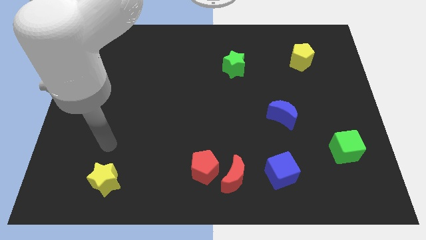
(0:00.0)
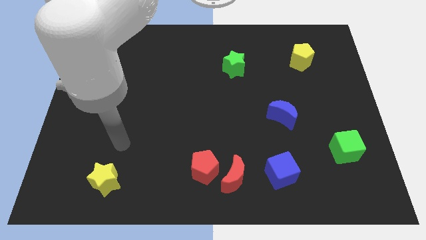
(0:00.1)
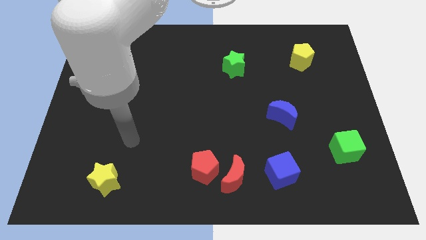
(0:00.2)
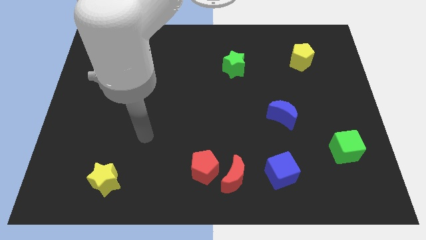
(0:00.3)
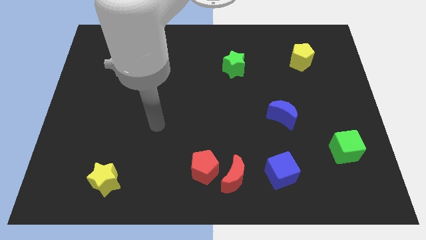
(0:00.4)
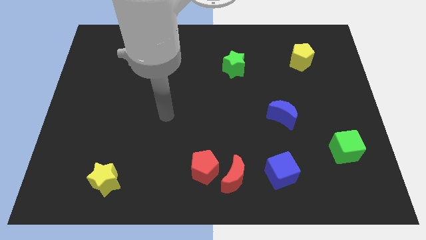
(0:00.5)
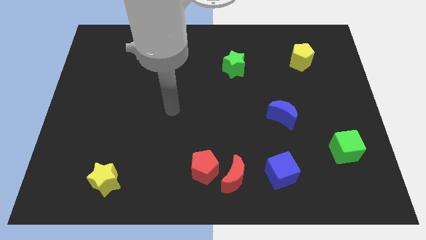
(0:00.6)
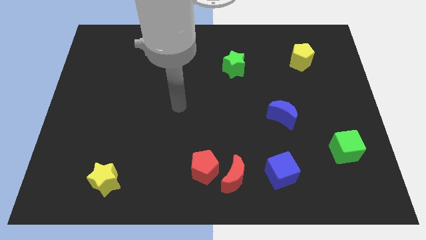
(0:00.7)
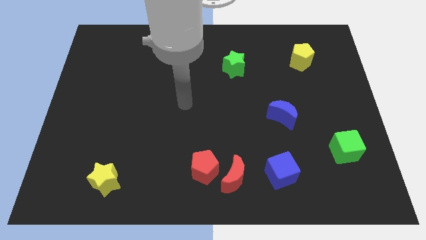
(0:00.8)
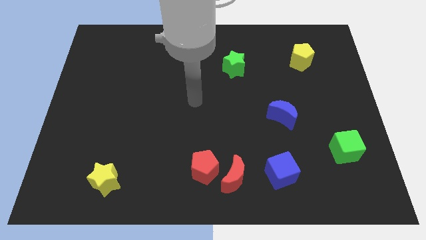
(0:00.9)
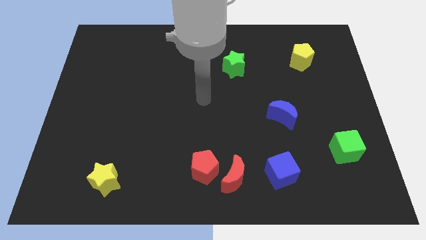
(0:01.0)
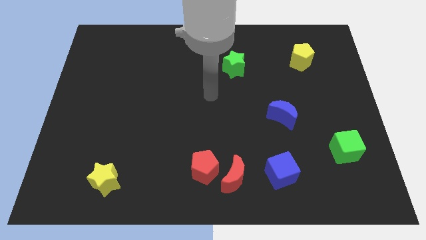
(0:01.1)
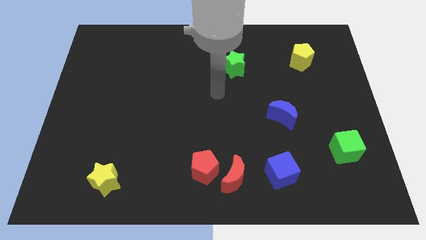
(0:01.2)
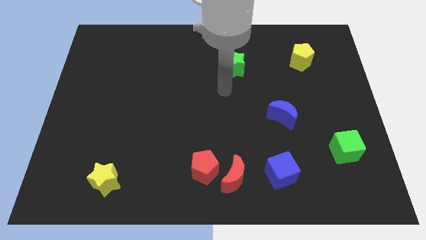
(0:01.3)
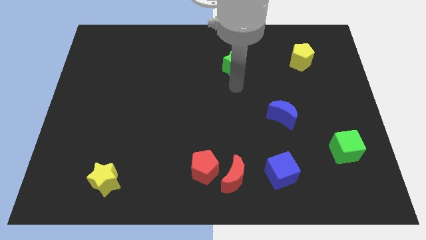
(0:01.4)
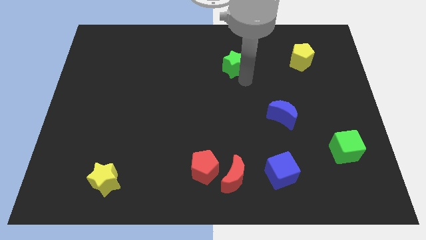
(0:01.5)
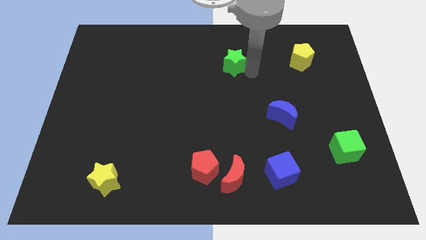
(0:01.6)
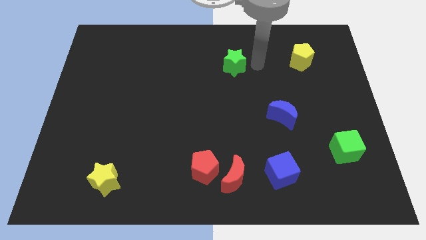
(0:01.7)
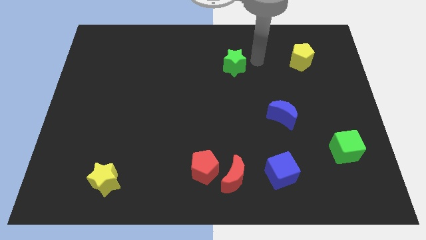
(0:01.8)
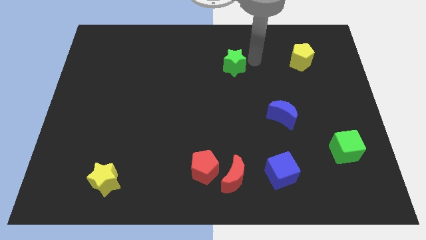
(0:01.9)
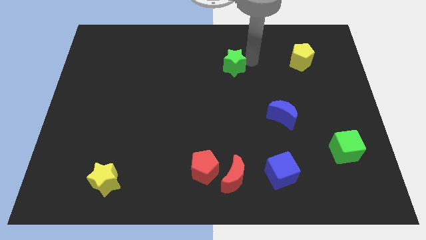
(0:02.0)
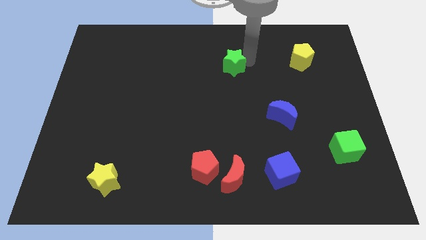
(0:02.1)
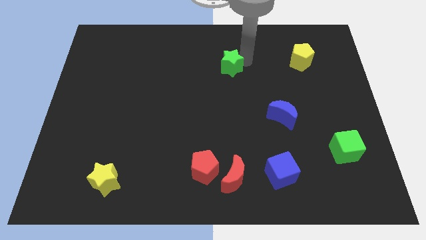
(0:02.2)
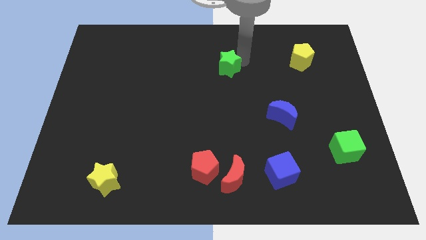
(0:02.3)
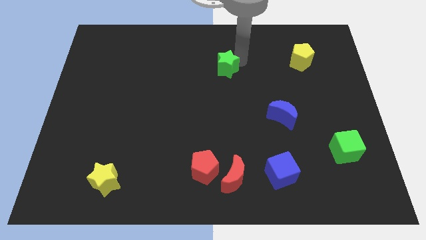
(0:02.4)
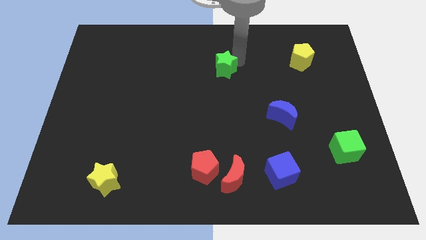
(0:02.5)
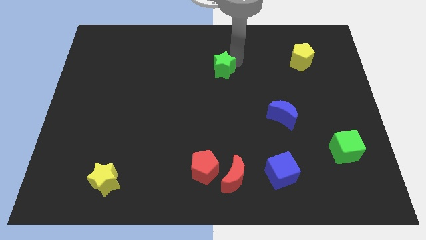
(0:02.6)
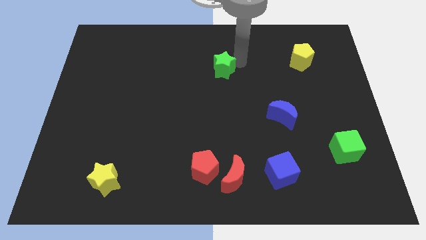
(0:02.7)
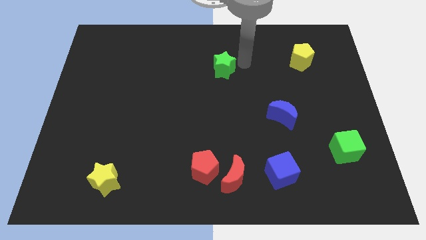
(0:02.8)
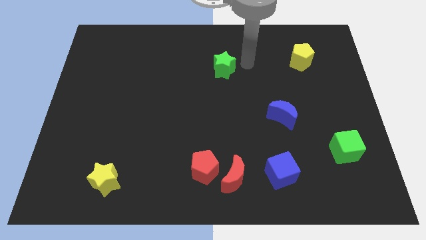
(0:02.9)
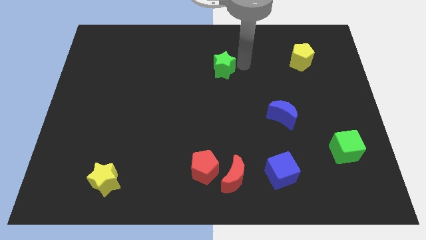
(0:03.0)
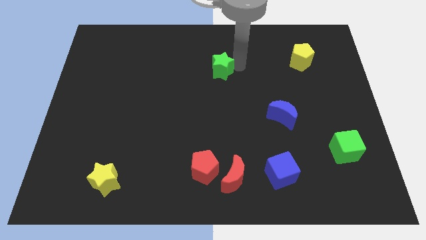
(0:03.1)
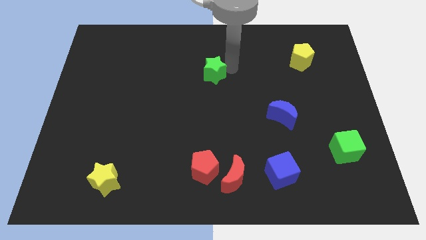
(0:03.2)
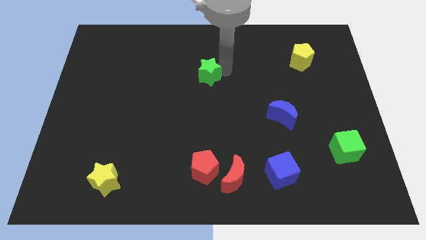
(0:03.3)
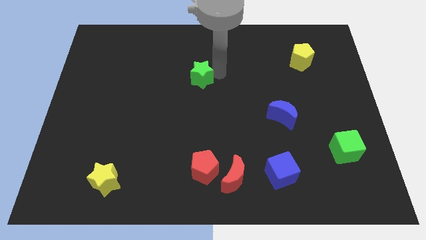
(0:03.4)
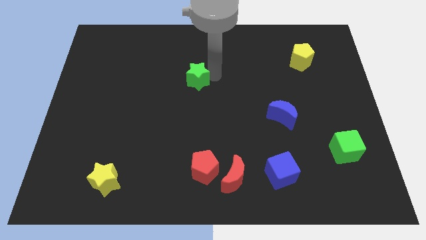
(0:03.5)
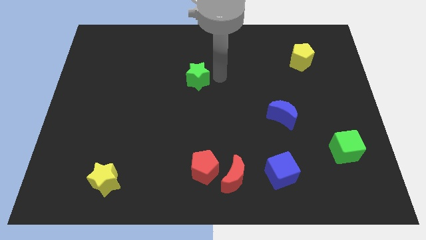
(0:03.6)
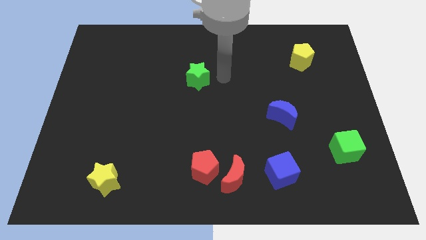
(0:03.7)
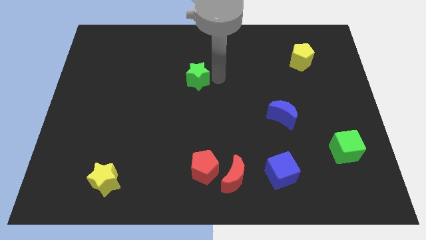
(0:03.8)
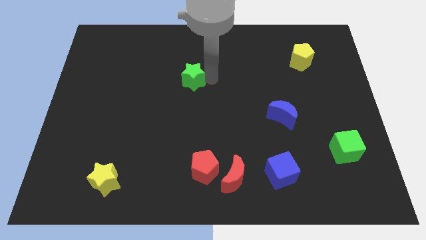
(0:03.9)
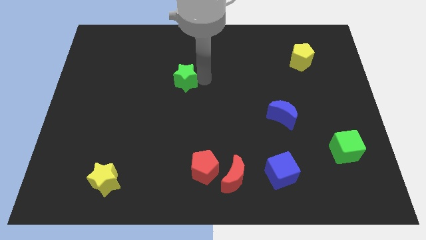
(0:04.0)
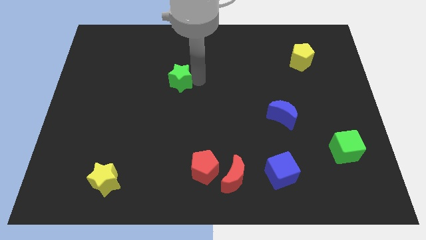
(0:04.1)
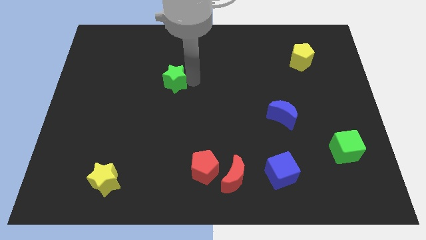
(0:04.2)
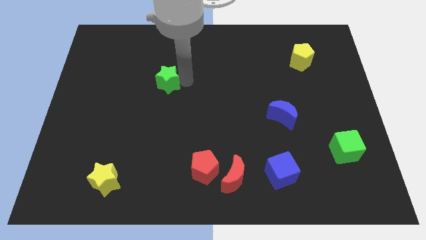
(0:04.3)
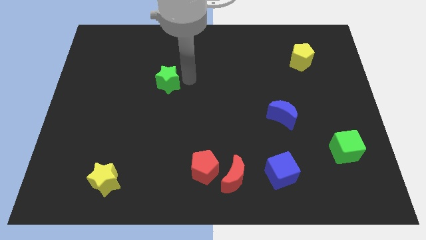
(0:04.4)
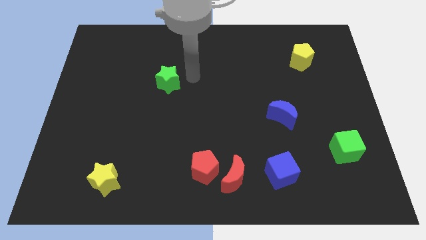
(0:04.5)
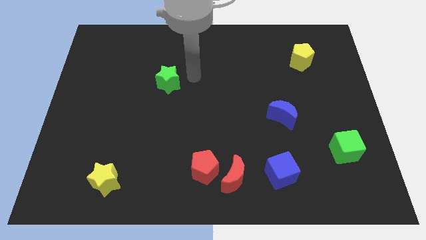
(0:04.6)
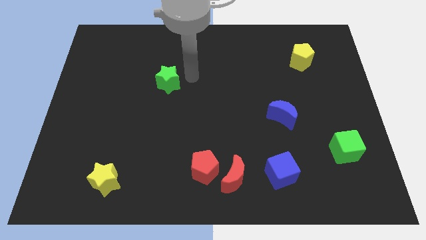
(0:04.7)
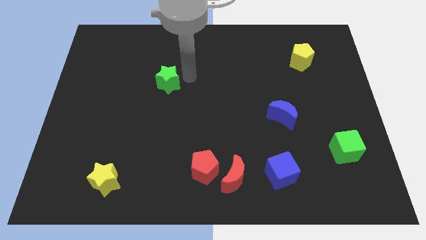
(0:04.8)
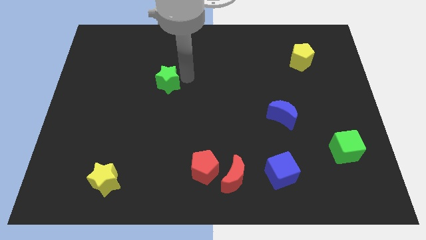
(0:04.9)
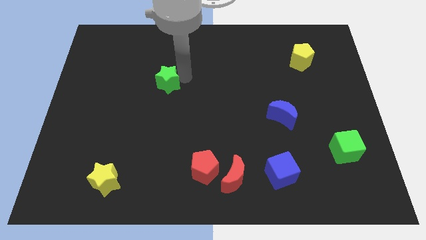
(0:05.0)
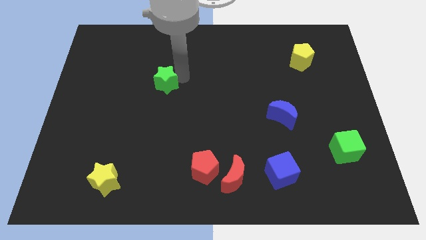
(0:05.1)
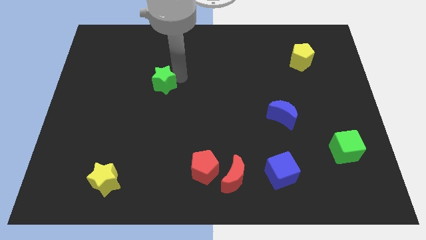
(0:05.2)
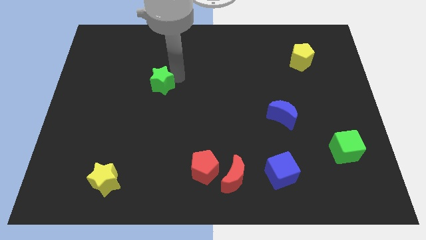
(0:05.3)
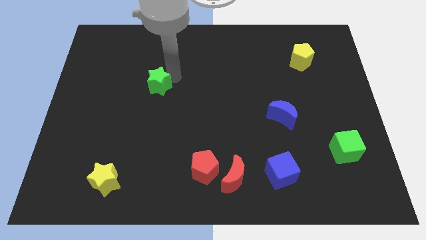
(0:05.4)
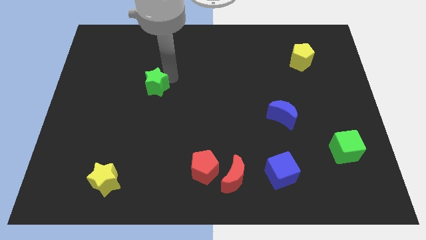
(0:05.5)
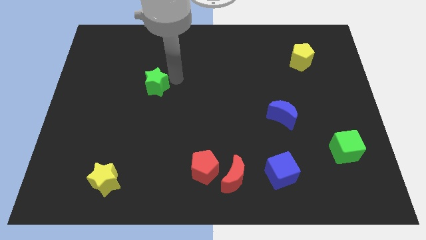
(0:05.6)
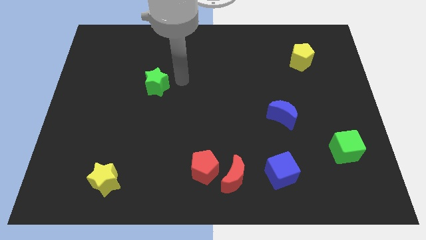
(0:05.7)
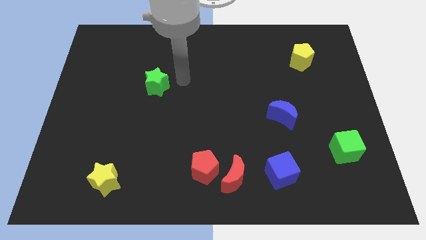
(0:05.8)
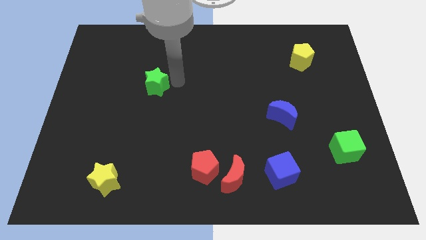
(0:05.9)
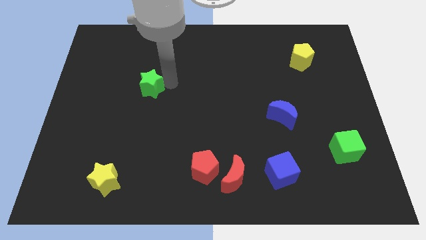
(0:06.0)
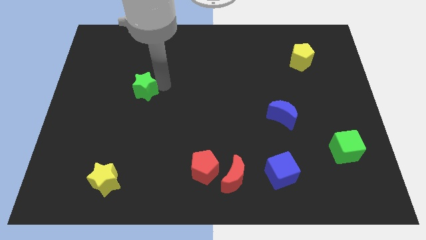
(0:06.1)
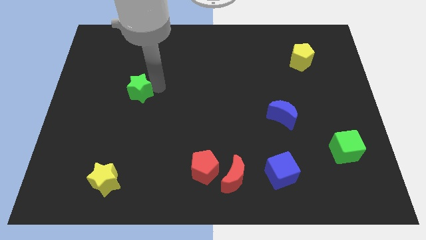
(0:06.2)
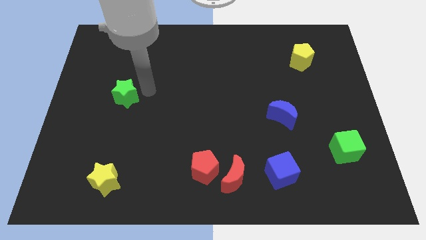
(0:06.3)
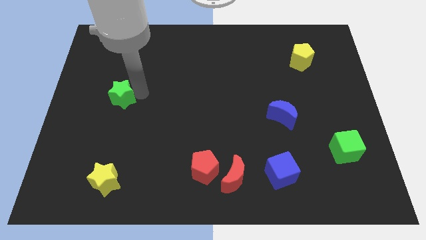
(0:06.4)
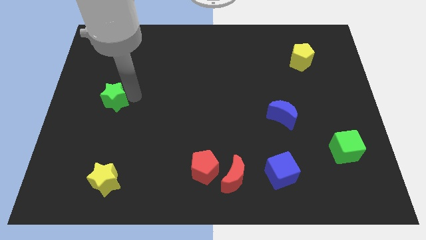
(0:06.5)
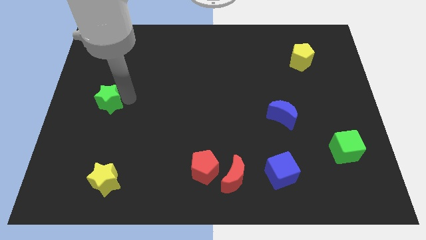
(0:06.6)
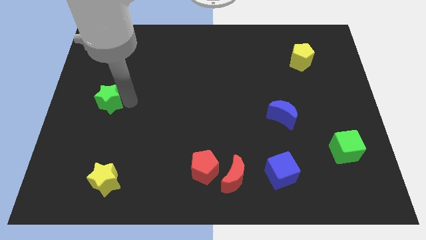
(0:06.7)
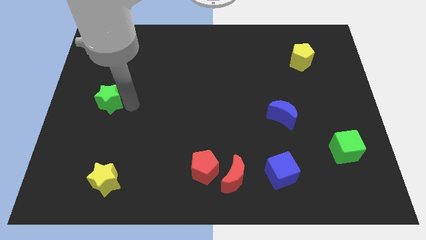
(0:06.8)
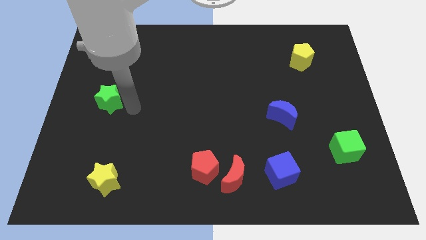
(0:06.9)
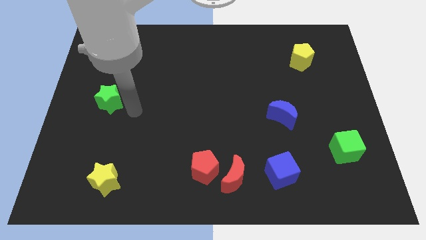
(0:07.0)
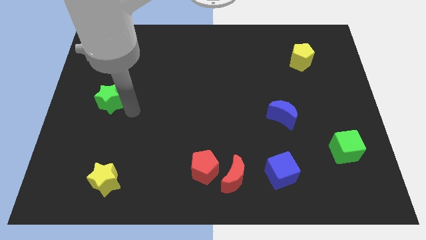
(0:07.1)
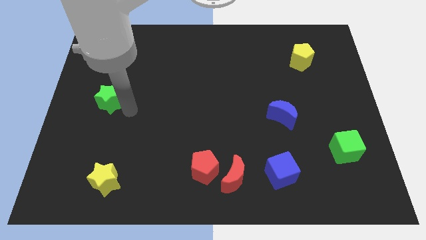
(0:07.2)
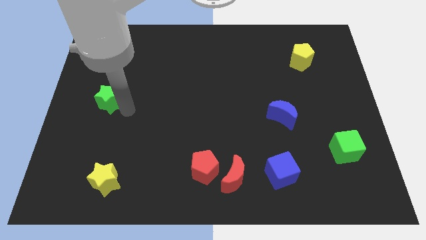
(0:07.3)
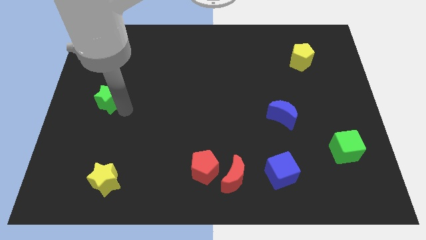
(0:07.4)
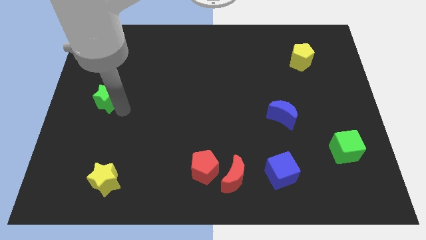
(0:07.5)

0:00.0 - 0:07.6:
put the green star to the center left
